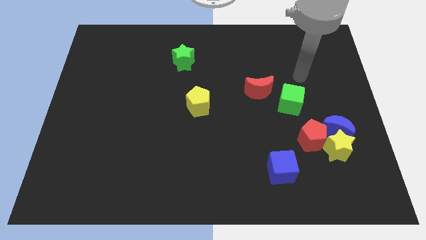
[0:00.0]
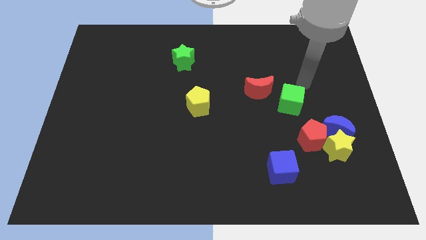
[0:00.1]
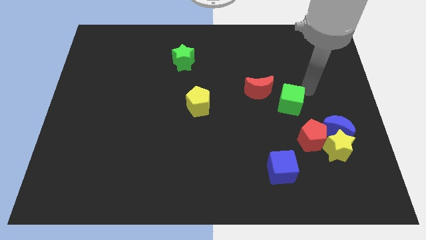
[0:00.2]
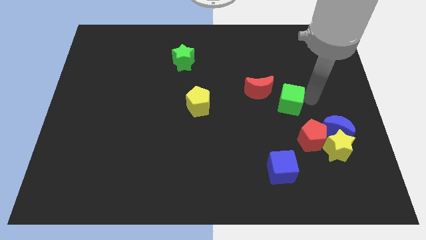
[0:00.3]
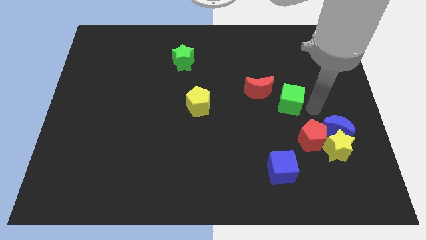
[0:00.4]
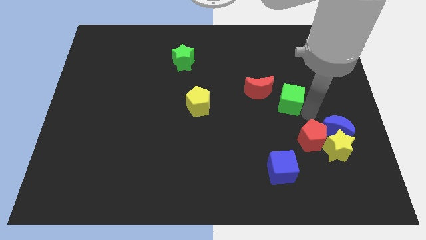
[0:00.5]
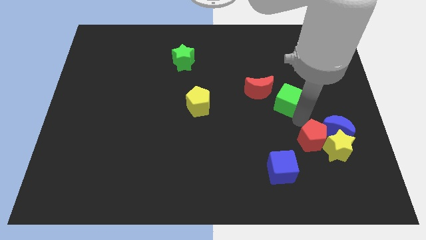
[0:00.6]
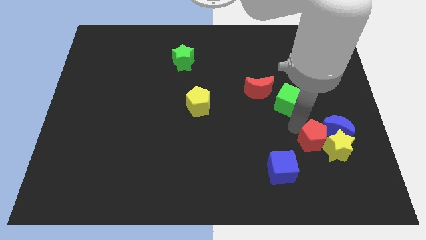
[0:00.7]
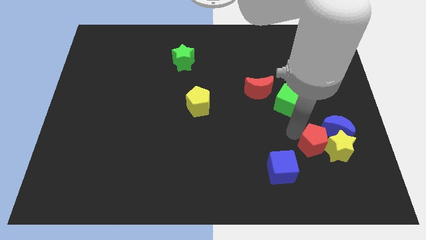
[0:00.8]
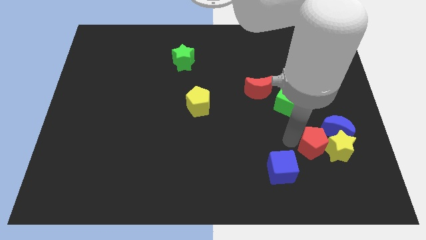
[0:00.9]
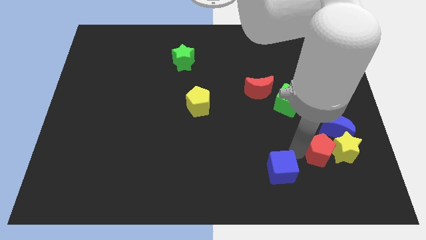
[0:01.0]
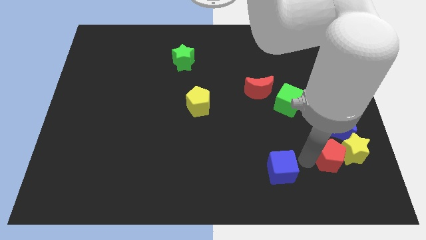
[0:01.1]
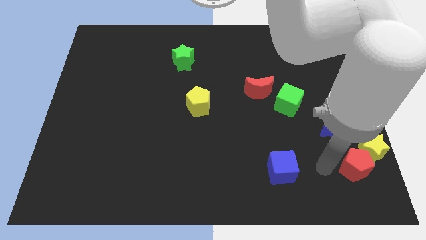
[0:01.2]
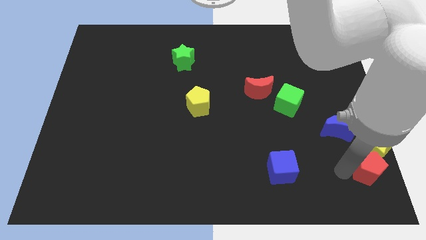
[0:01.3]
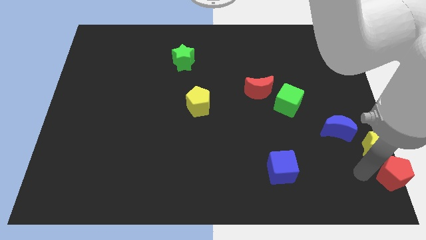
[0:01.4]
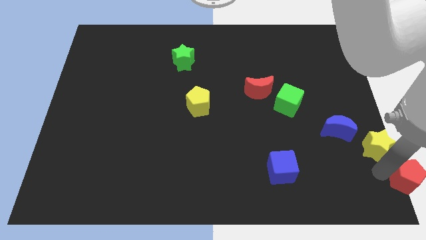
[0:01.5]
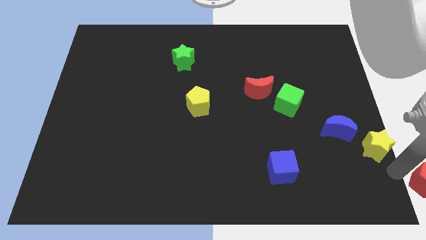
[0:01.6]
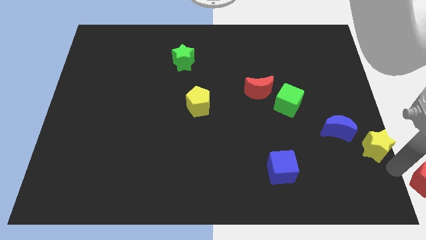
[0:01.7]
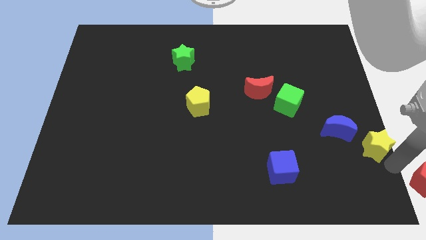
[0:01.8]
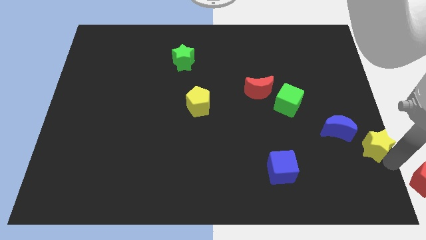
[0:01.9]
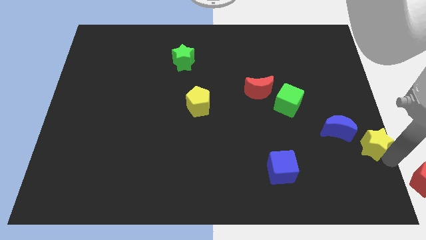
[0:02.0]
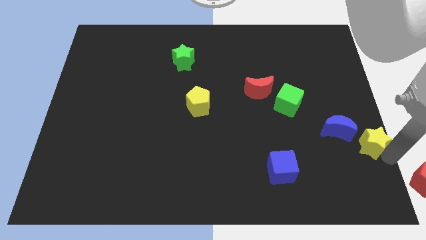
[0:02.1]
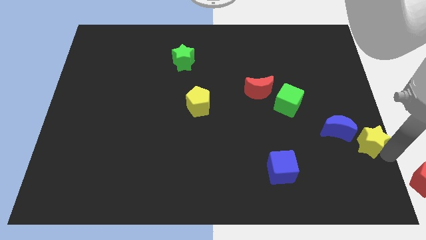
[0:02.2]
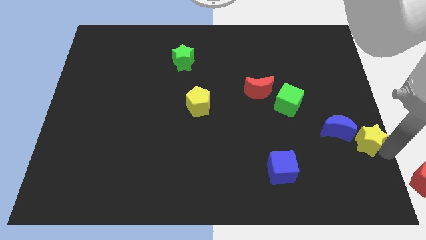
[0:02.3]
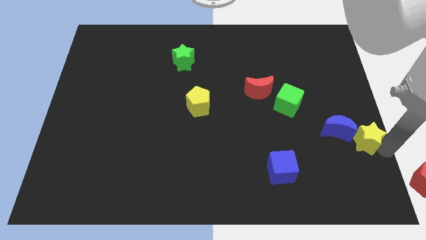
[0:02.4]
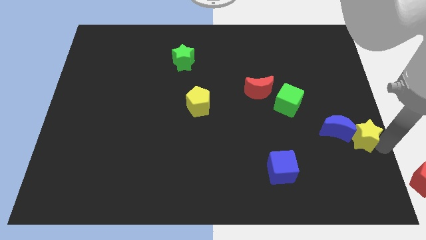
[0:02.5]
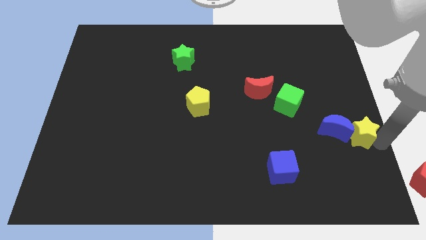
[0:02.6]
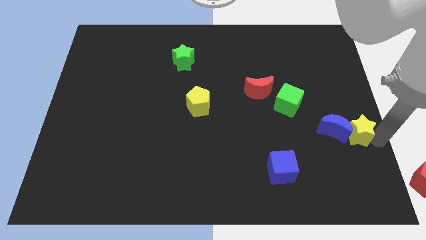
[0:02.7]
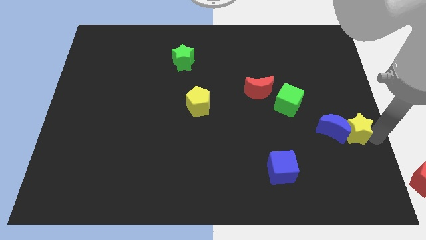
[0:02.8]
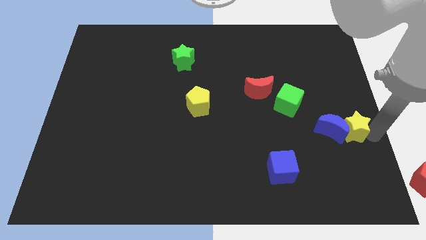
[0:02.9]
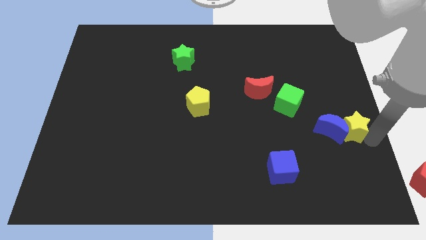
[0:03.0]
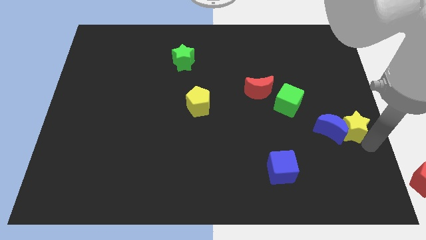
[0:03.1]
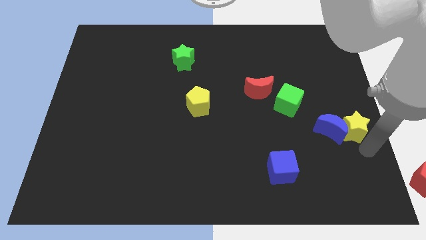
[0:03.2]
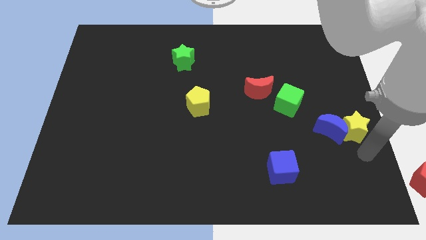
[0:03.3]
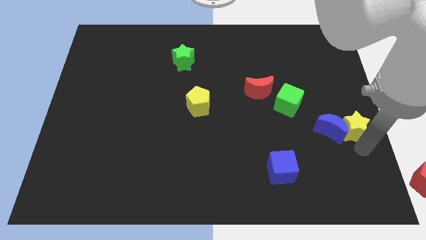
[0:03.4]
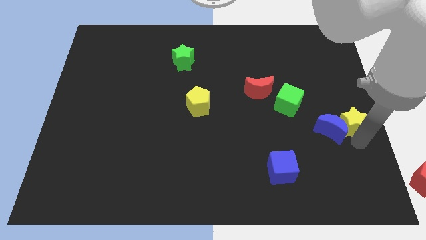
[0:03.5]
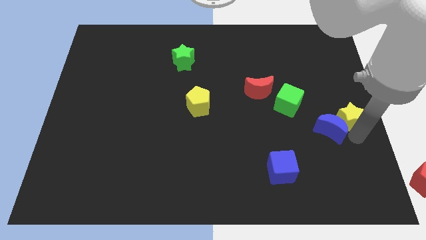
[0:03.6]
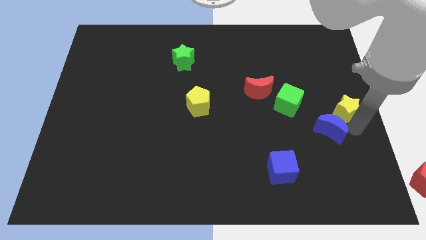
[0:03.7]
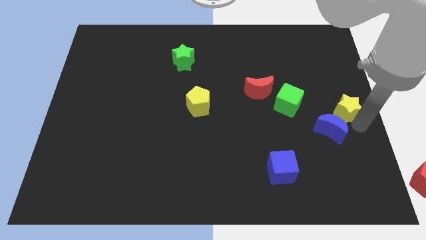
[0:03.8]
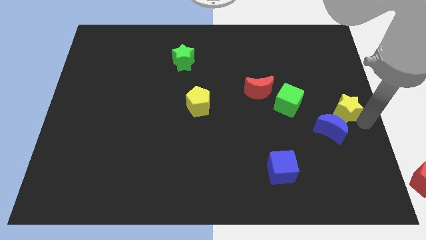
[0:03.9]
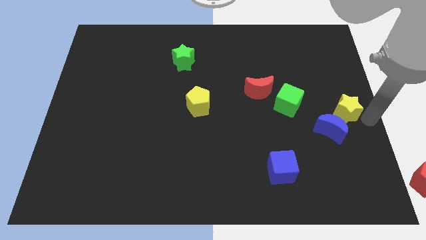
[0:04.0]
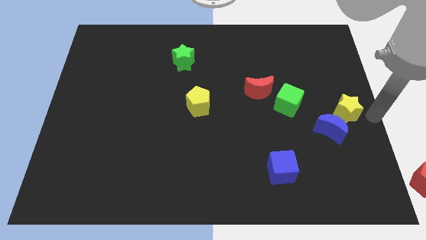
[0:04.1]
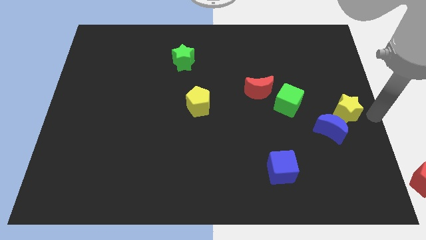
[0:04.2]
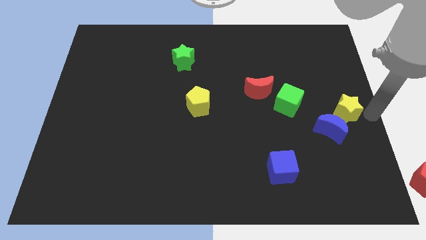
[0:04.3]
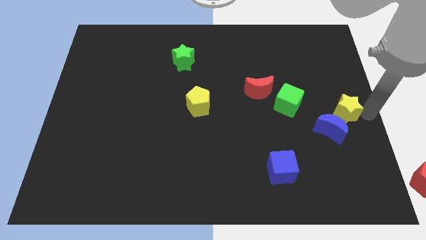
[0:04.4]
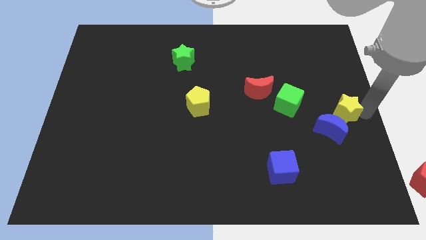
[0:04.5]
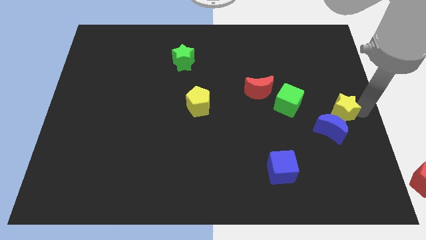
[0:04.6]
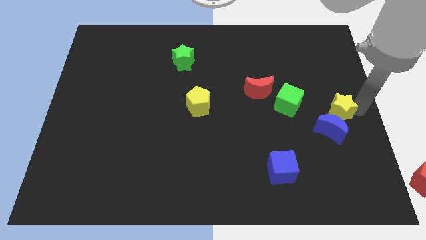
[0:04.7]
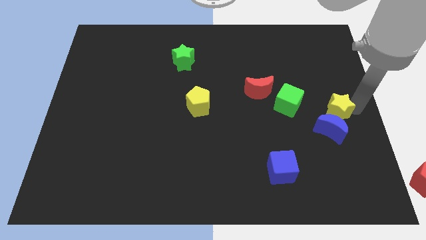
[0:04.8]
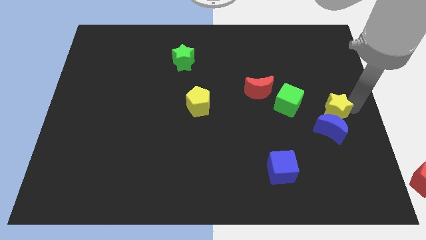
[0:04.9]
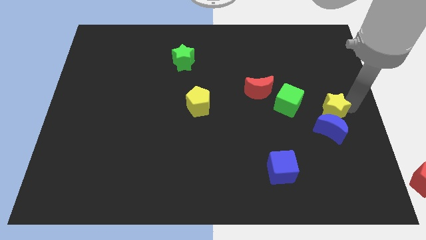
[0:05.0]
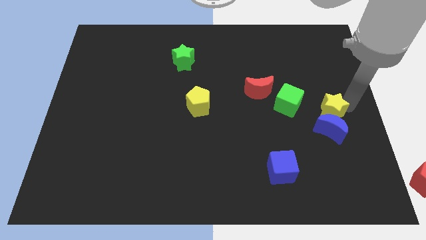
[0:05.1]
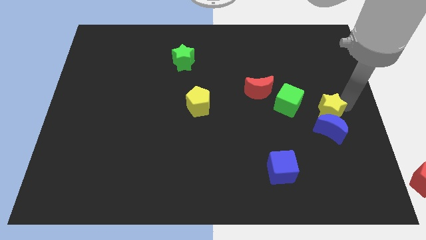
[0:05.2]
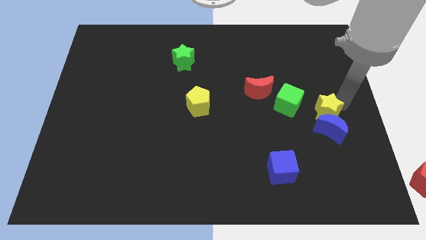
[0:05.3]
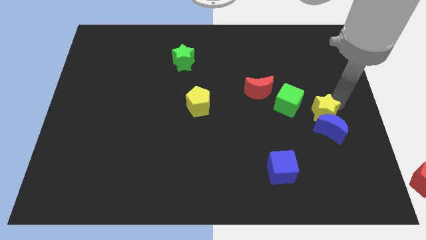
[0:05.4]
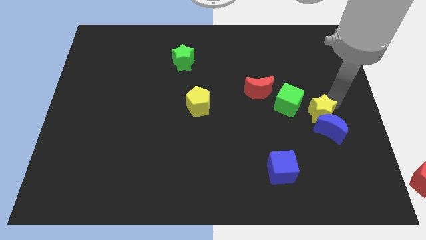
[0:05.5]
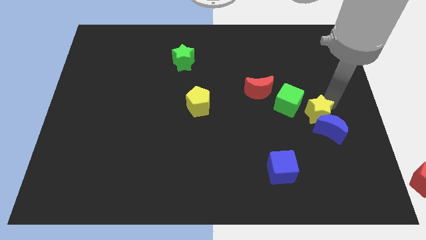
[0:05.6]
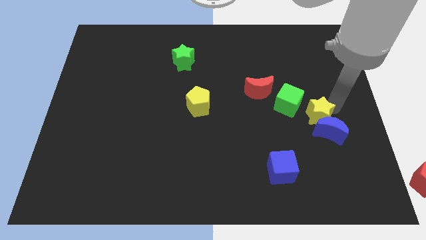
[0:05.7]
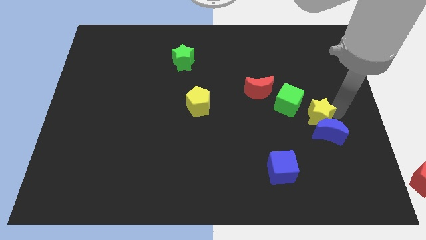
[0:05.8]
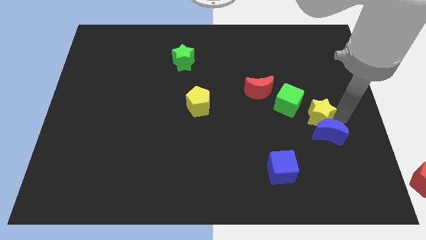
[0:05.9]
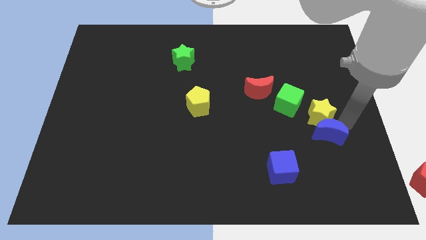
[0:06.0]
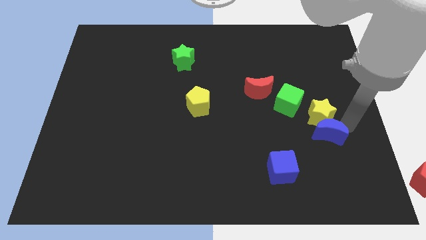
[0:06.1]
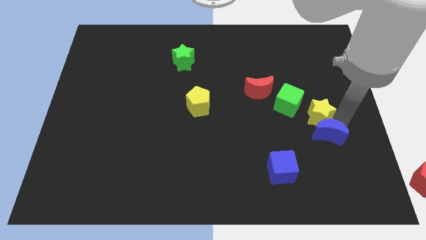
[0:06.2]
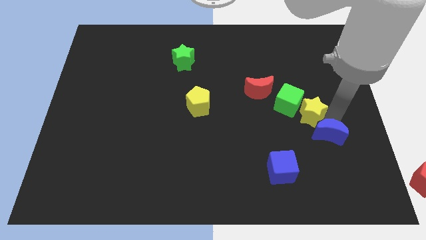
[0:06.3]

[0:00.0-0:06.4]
push the yellow star close to the green cube
